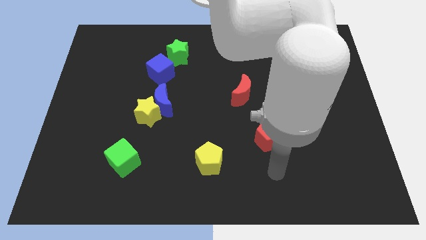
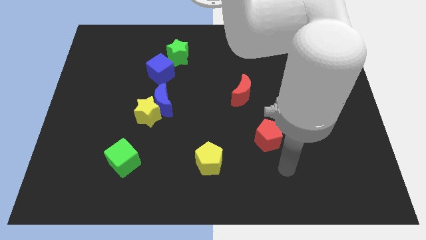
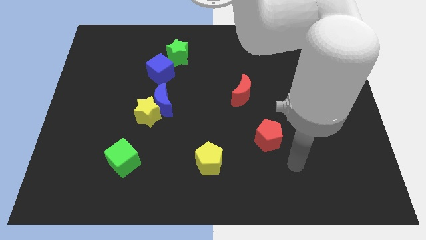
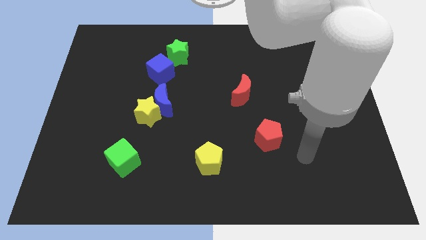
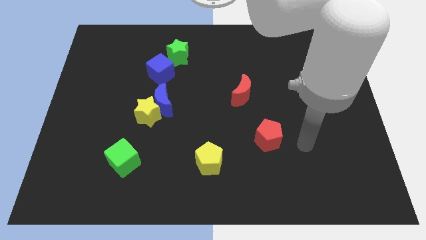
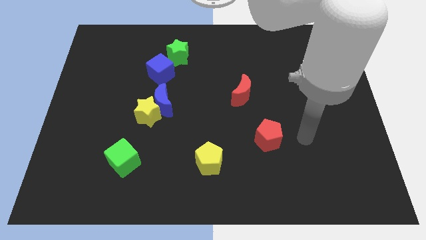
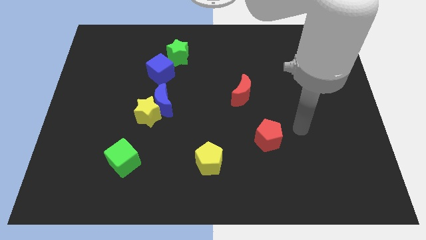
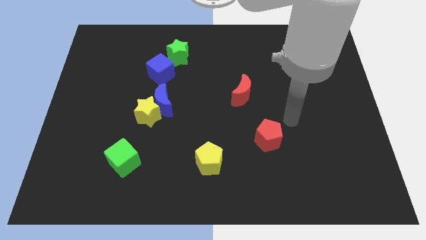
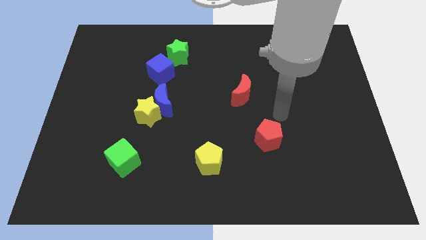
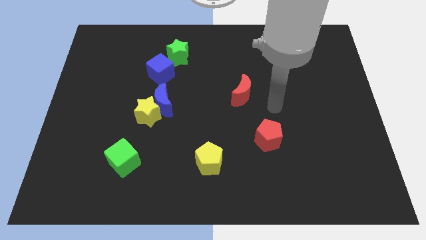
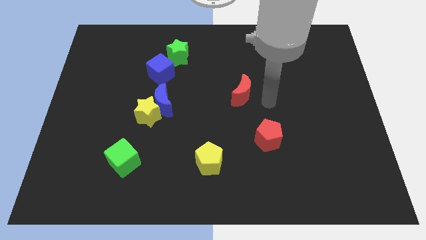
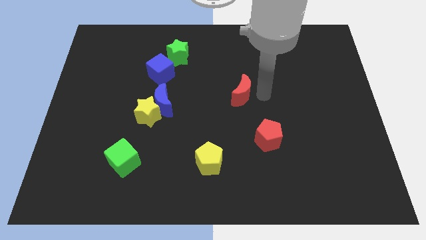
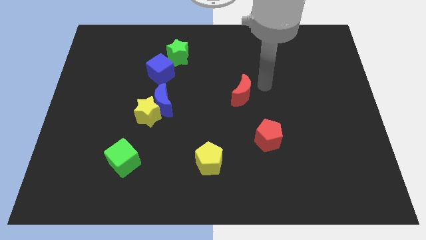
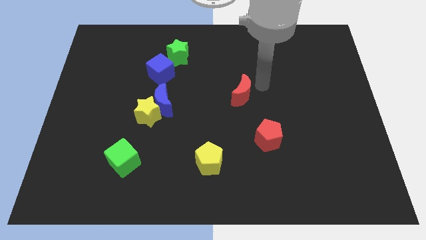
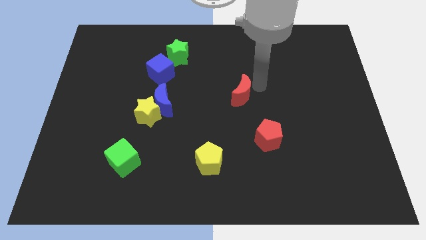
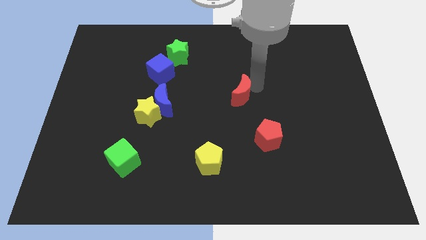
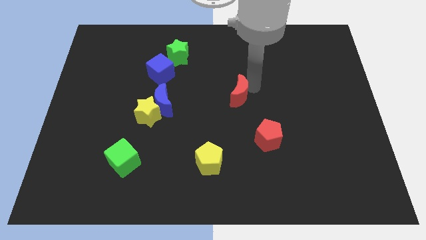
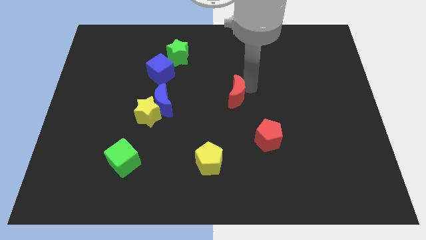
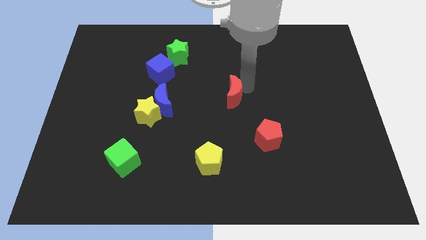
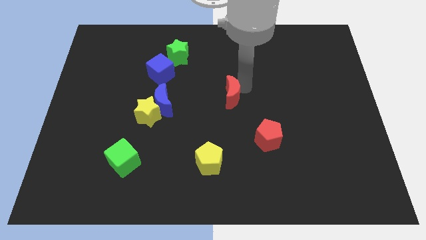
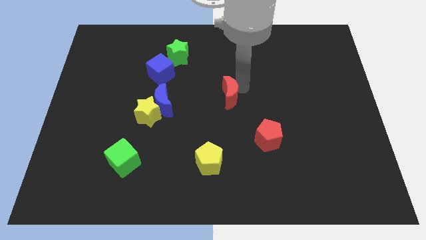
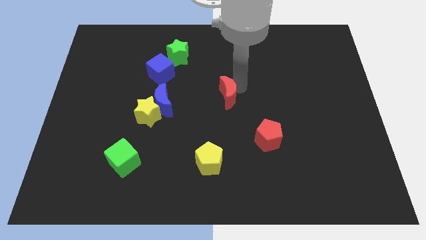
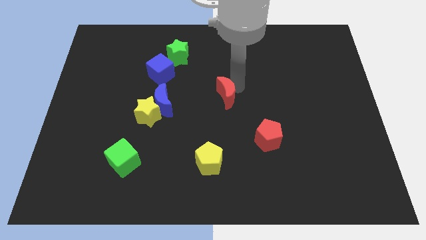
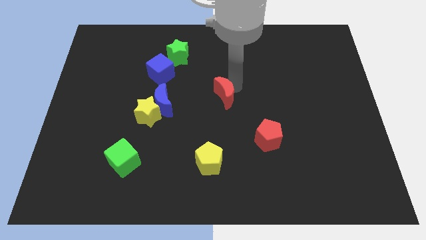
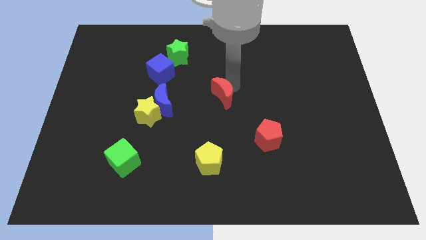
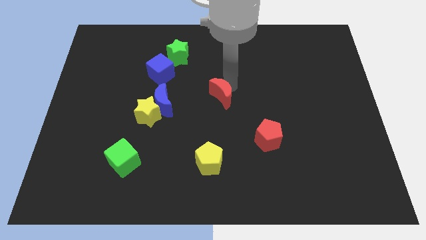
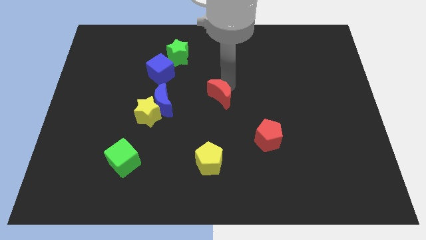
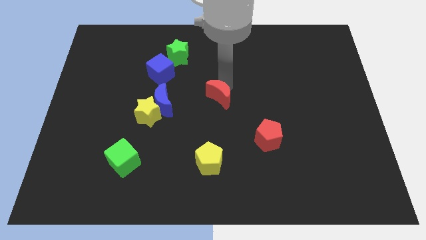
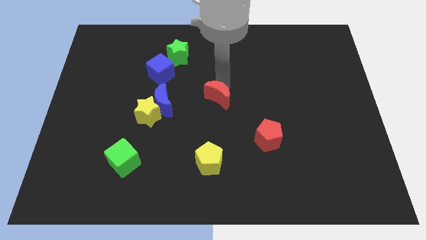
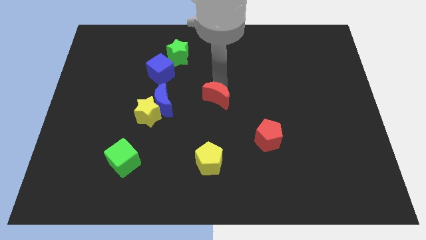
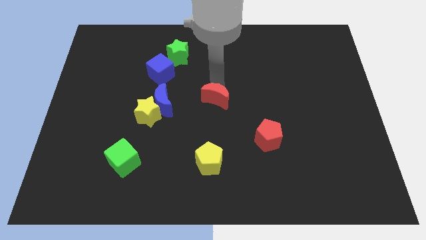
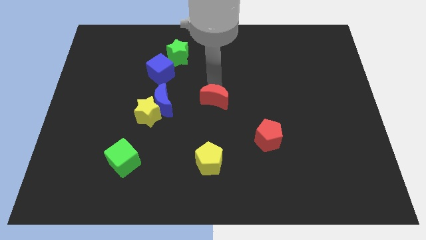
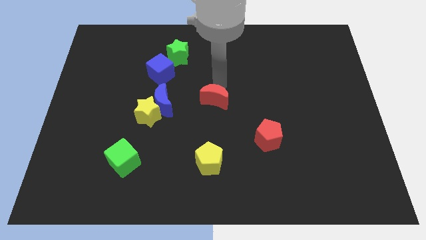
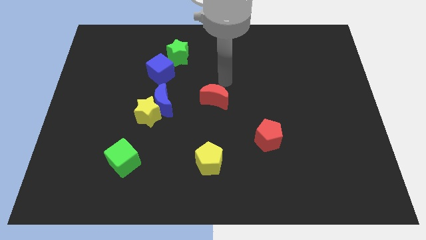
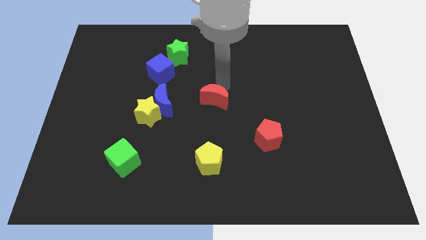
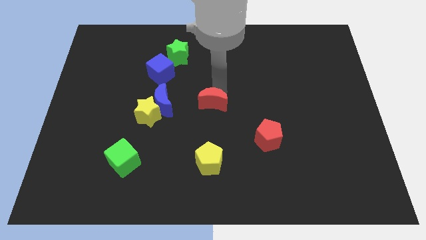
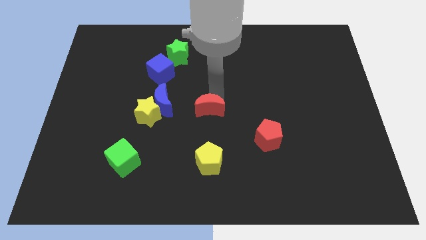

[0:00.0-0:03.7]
push the red moon somewhat downwards and to the left

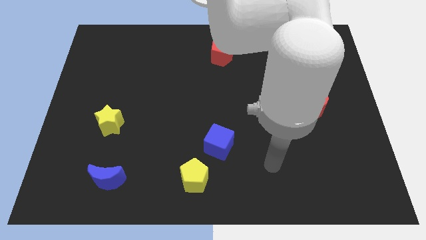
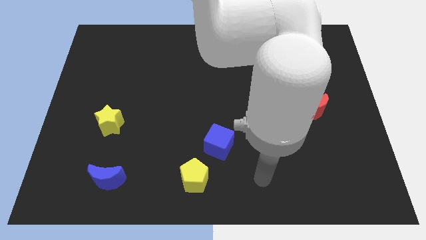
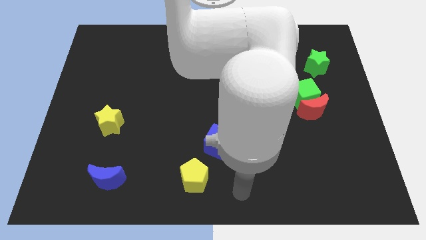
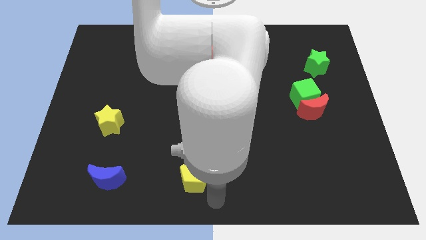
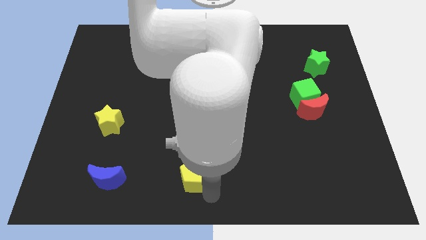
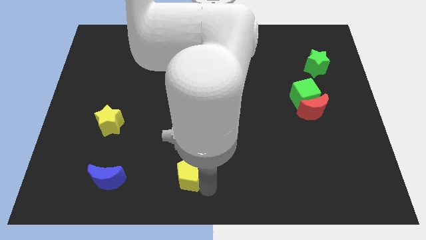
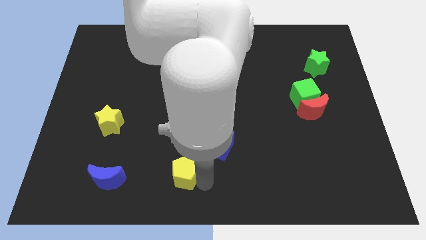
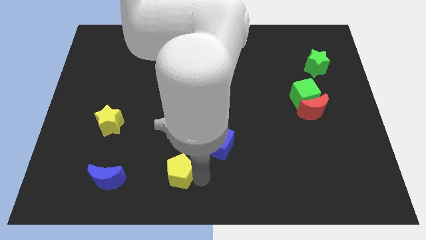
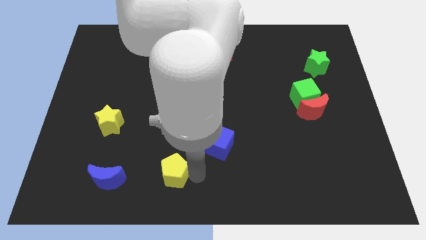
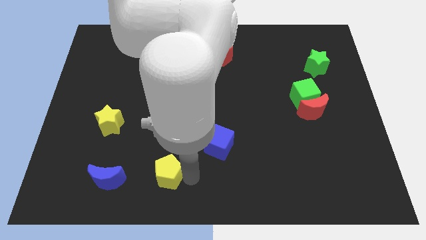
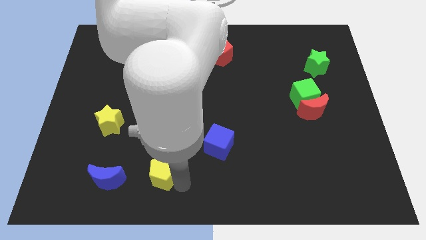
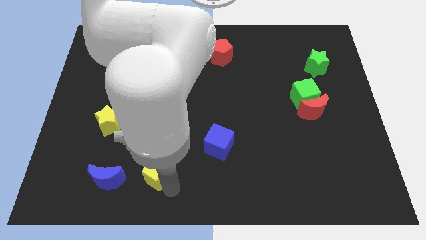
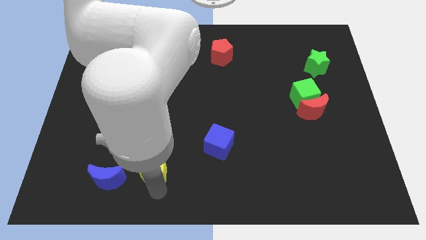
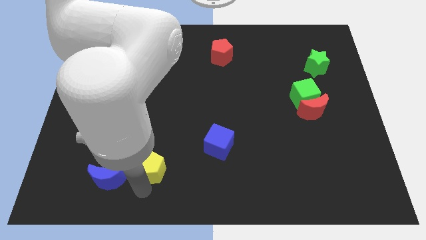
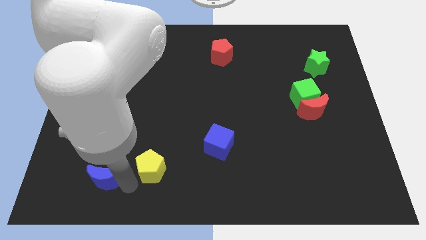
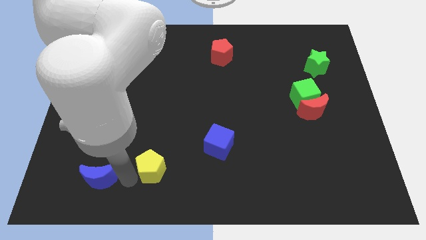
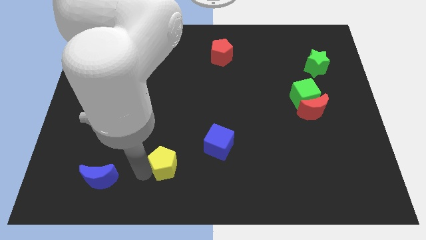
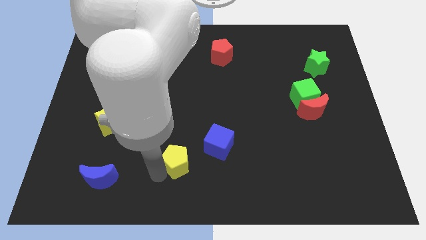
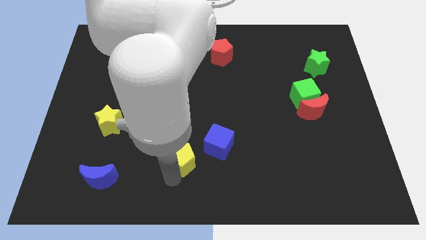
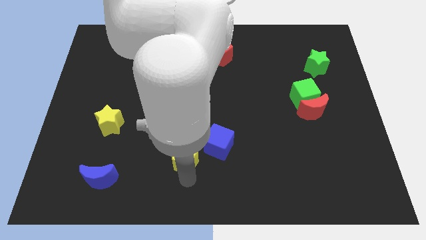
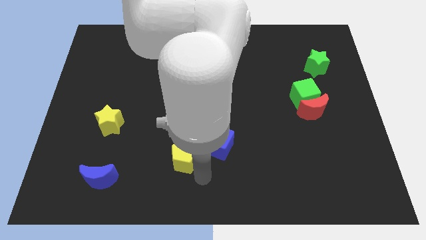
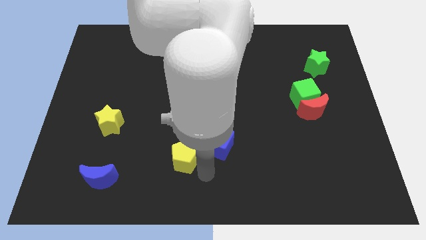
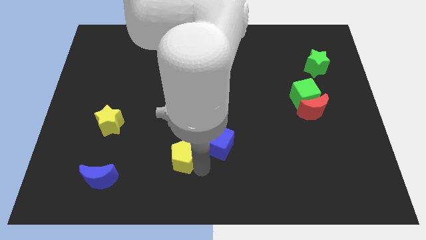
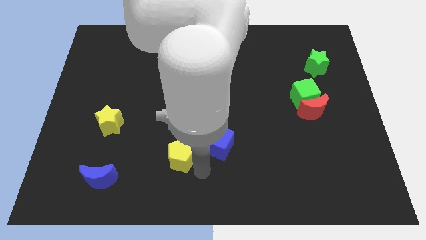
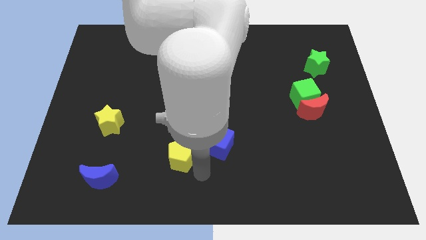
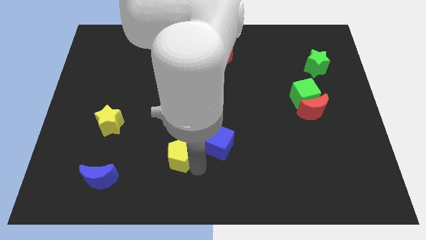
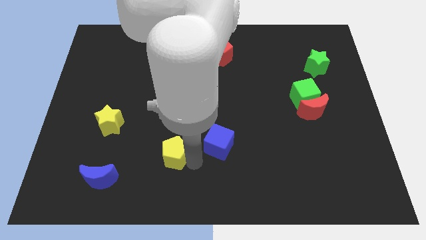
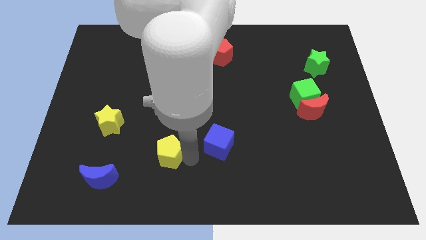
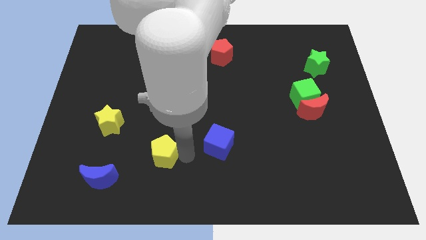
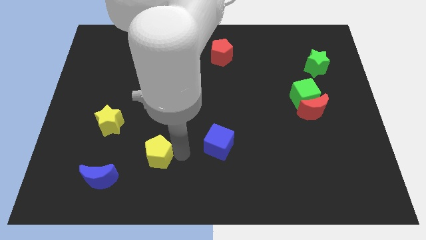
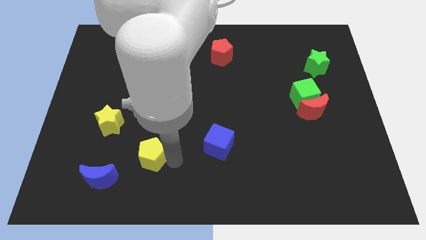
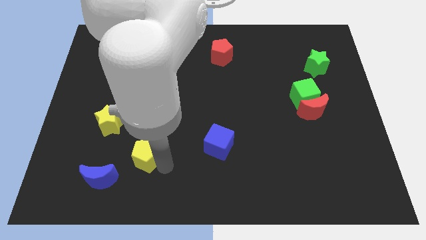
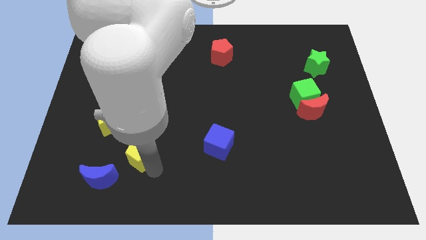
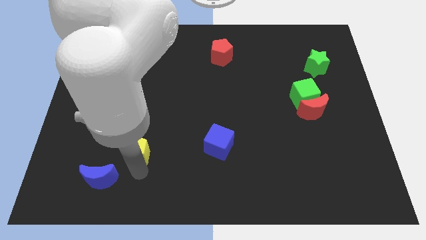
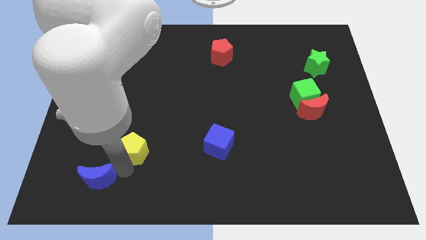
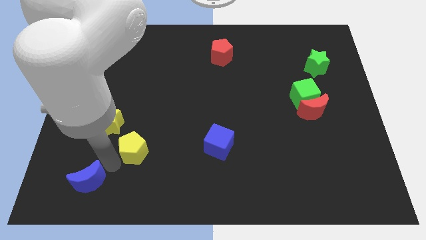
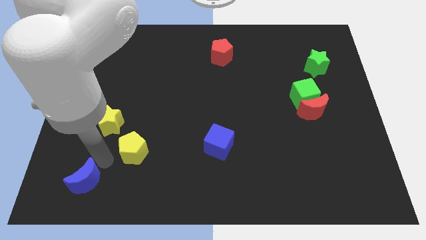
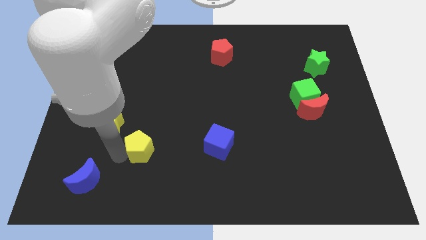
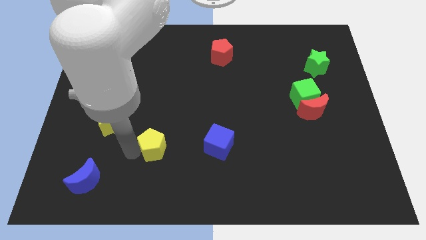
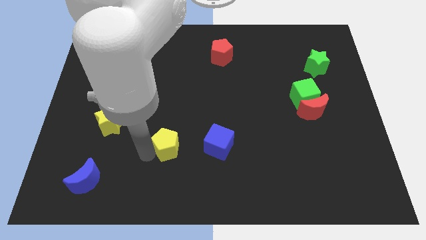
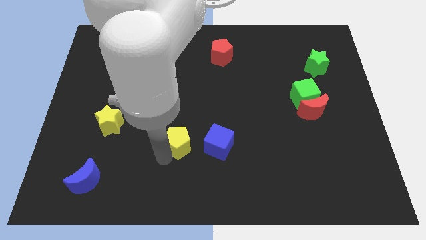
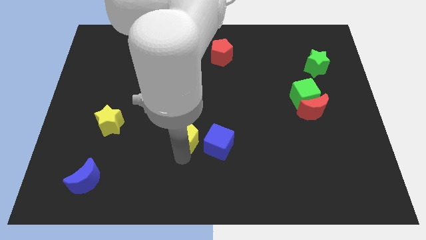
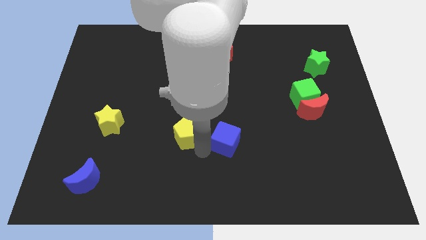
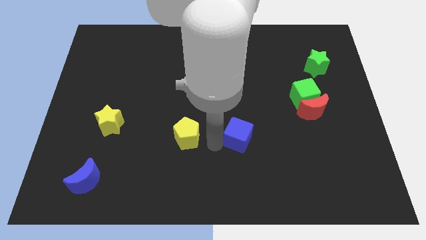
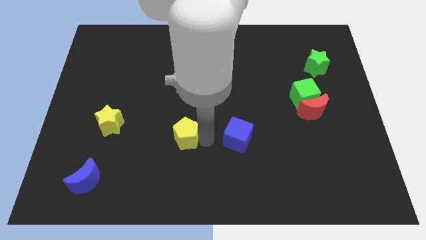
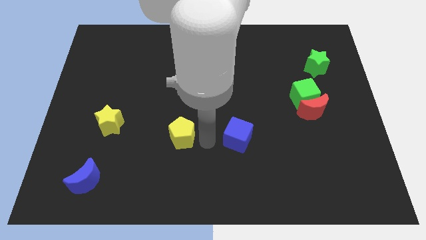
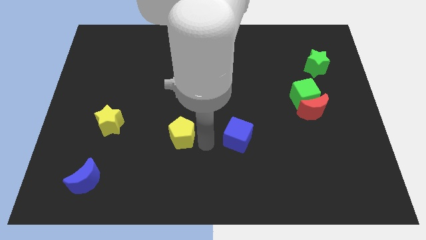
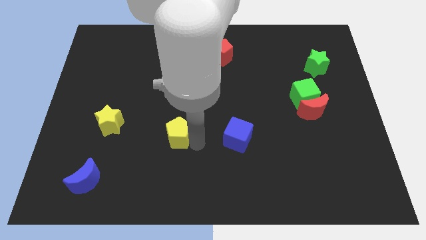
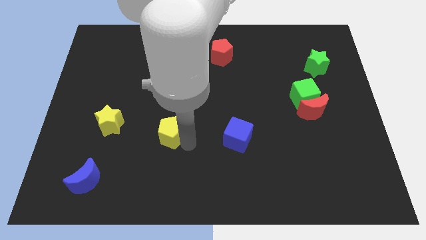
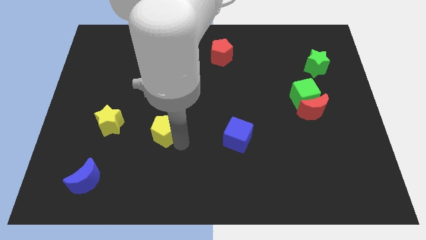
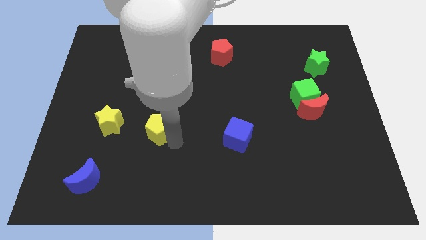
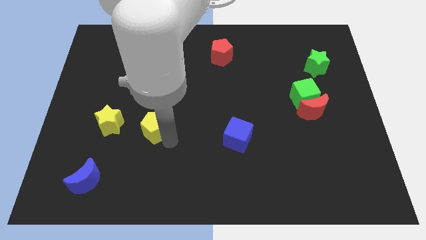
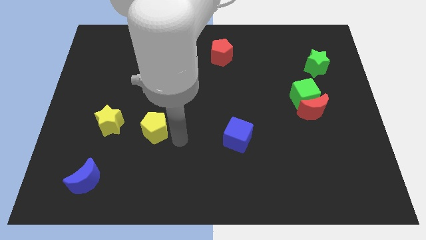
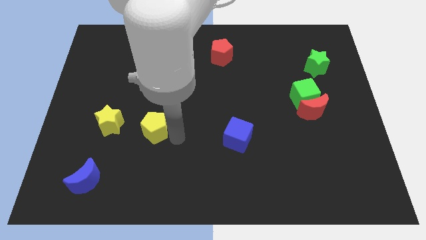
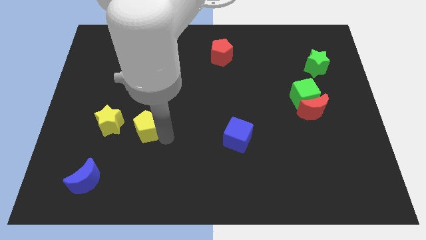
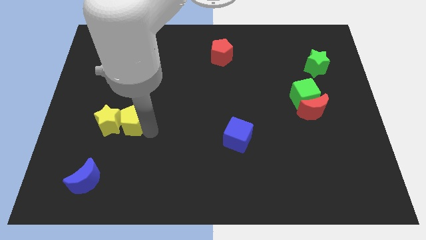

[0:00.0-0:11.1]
push the yellow pentagon up and left diagonally
